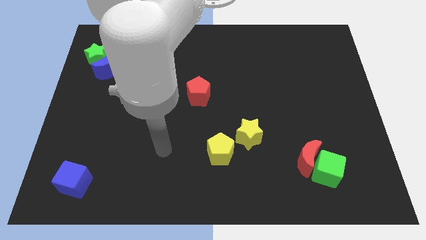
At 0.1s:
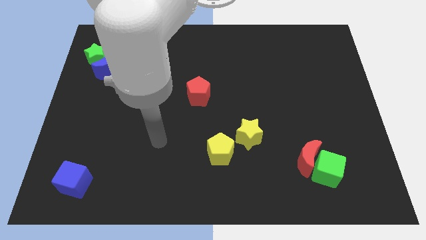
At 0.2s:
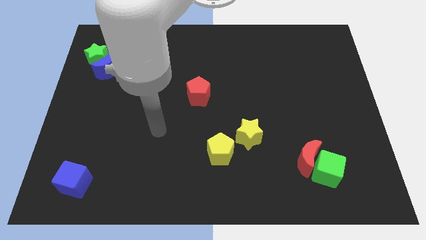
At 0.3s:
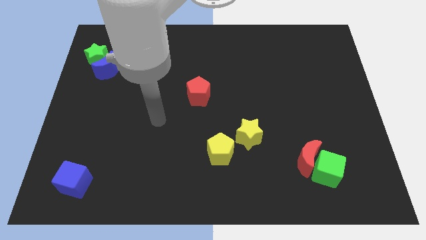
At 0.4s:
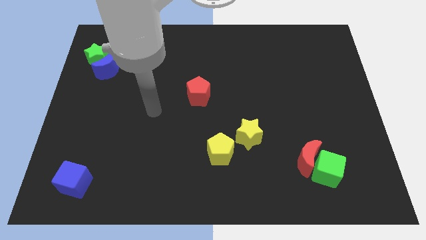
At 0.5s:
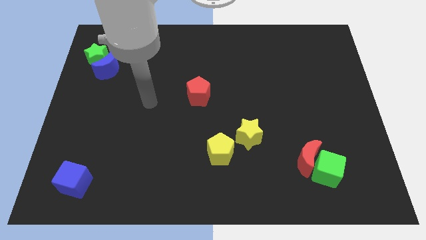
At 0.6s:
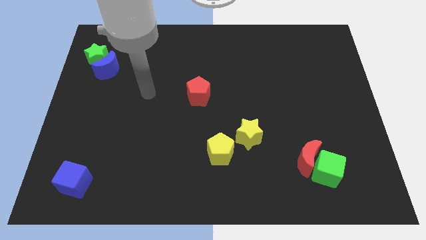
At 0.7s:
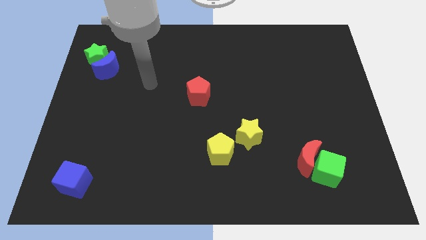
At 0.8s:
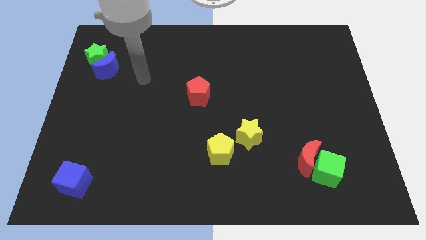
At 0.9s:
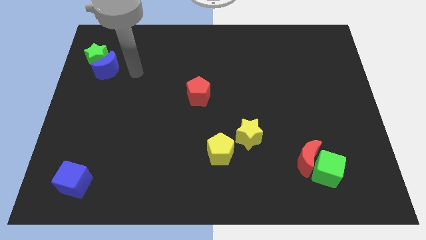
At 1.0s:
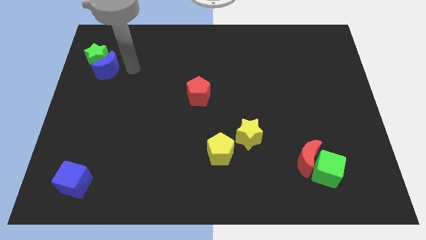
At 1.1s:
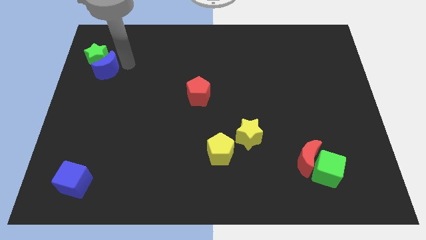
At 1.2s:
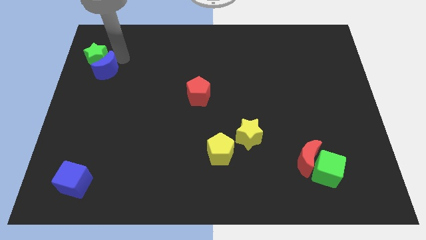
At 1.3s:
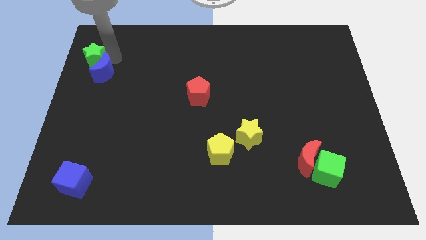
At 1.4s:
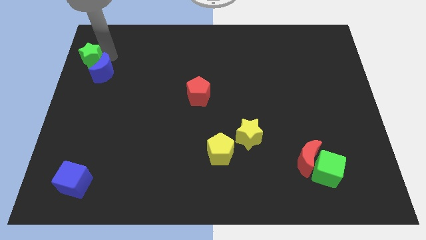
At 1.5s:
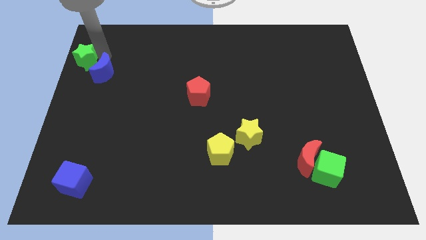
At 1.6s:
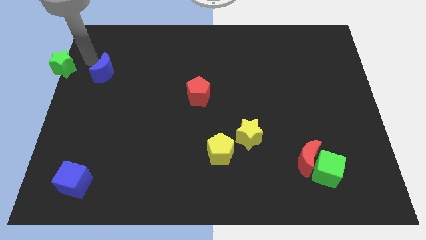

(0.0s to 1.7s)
separate the blue moon from the green star

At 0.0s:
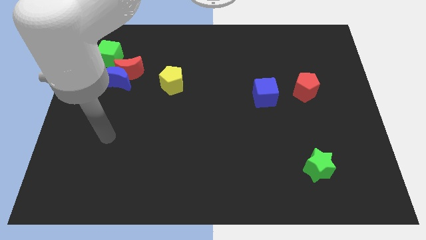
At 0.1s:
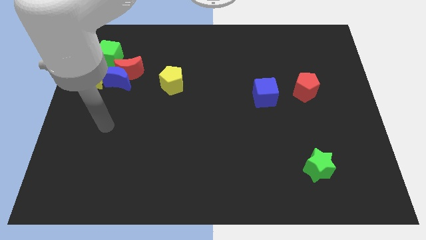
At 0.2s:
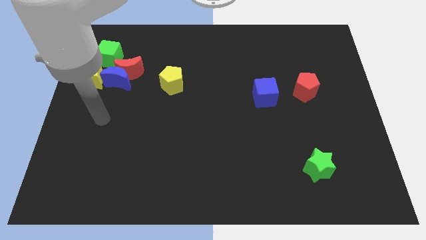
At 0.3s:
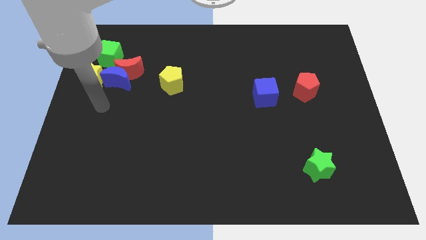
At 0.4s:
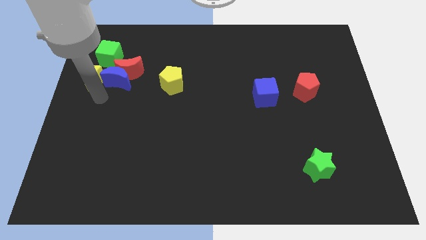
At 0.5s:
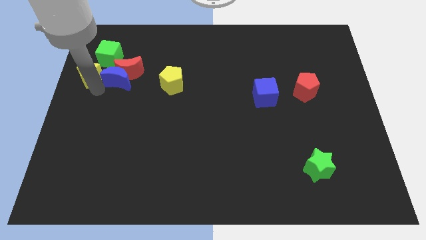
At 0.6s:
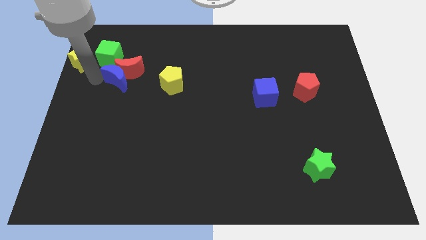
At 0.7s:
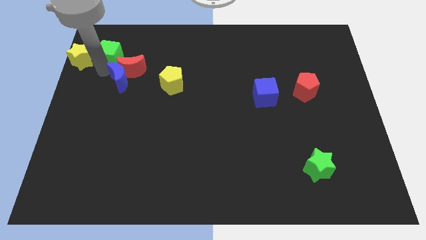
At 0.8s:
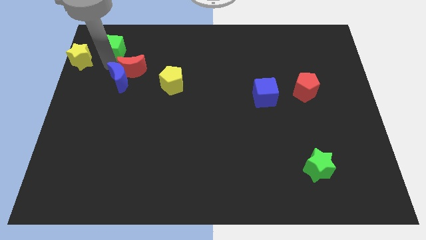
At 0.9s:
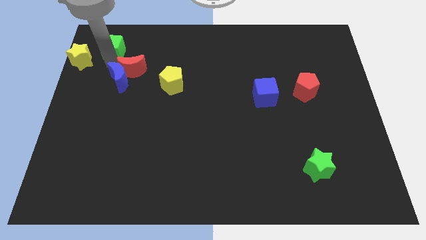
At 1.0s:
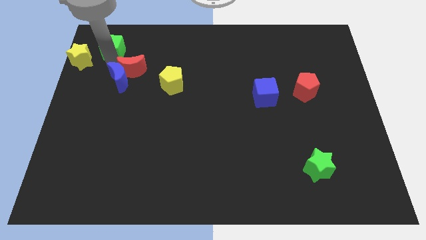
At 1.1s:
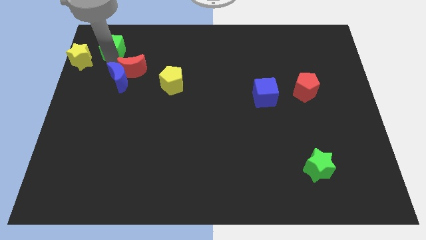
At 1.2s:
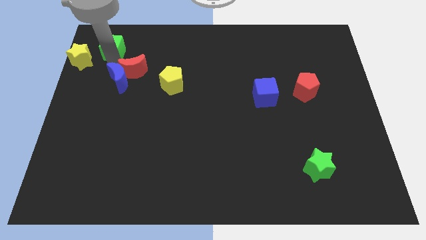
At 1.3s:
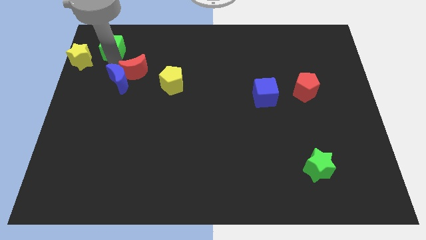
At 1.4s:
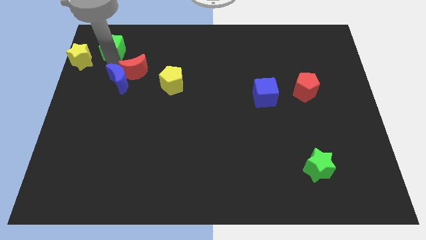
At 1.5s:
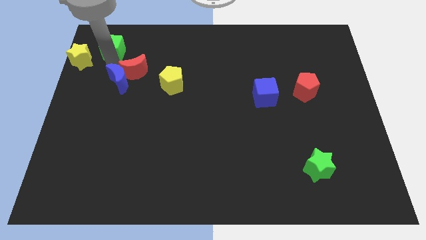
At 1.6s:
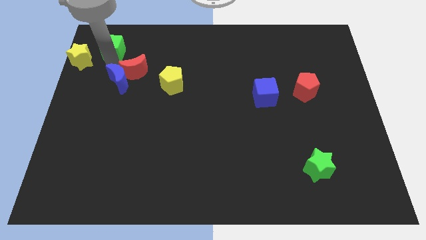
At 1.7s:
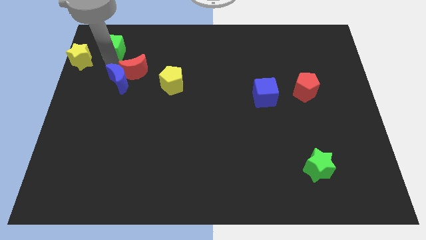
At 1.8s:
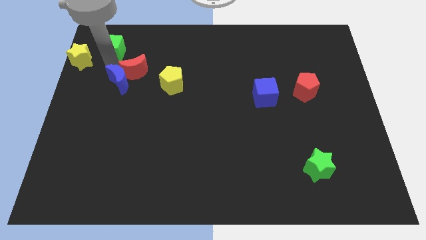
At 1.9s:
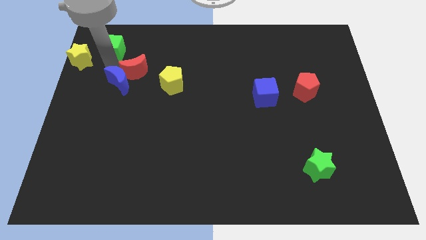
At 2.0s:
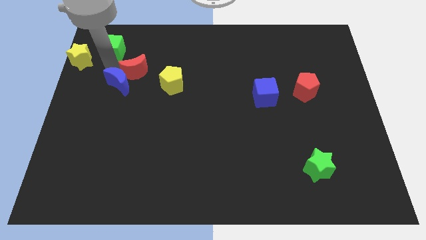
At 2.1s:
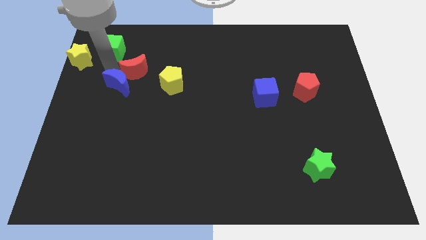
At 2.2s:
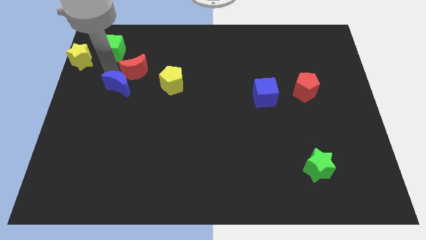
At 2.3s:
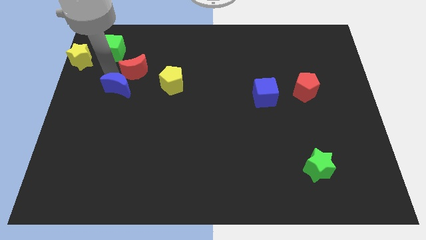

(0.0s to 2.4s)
pull the blue moon apart from the clump

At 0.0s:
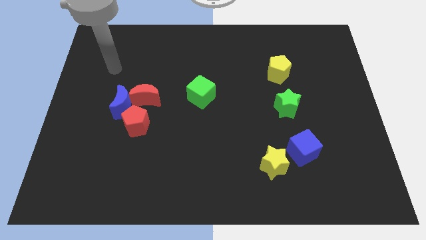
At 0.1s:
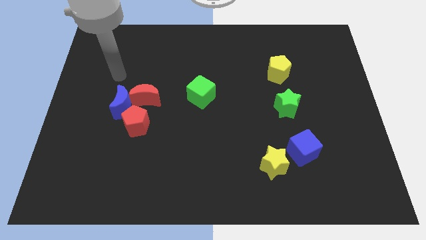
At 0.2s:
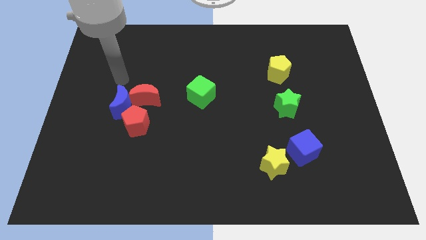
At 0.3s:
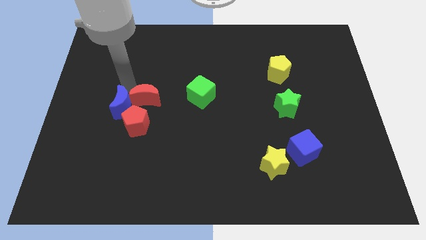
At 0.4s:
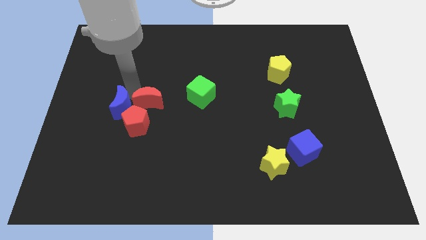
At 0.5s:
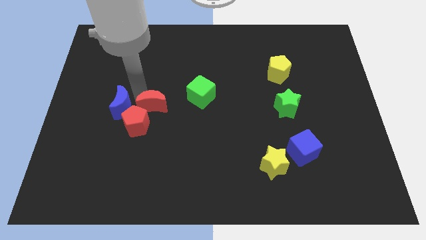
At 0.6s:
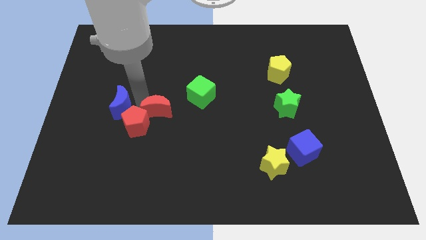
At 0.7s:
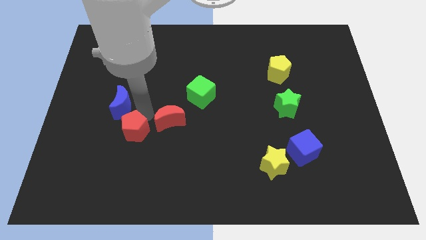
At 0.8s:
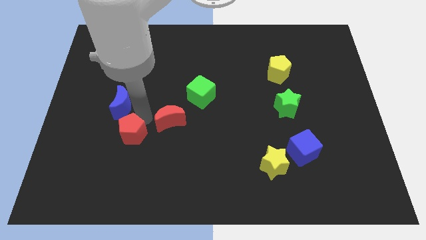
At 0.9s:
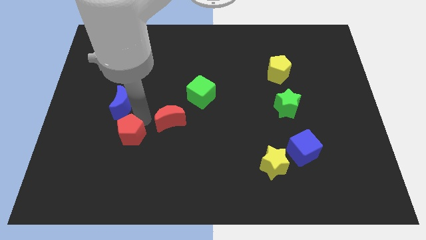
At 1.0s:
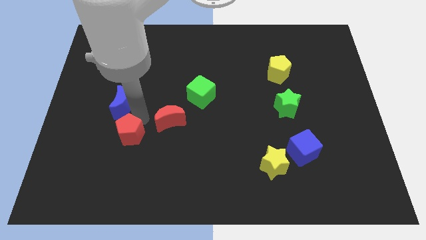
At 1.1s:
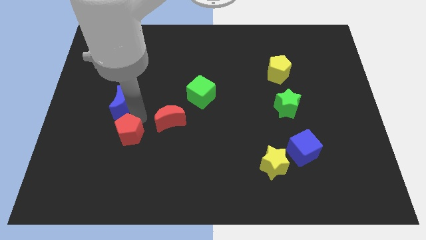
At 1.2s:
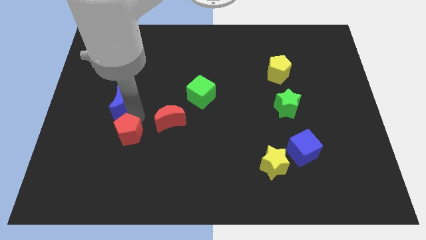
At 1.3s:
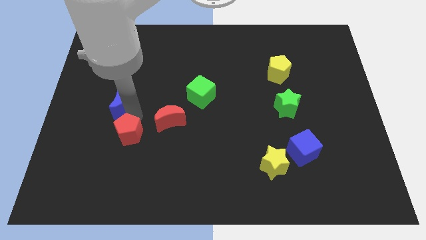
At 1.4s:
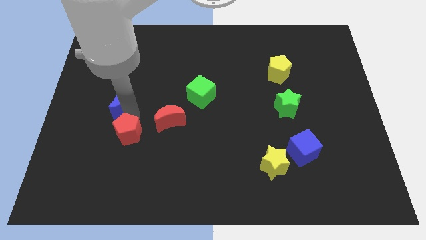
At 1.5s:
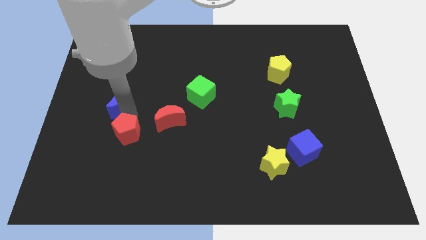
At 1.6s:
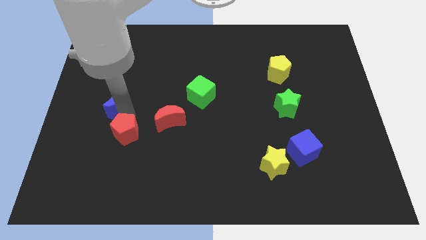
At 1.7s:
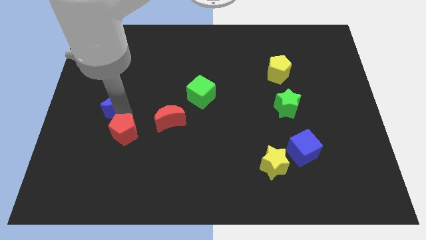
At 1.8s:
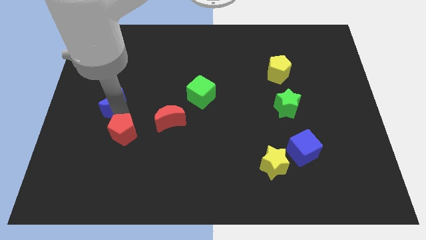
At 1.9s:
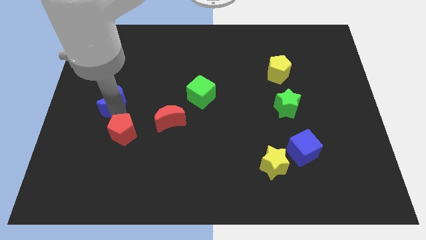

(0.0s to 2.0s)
move the blue moon away from the red moon and red pentagon

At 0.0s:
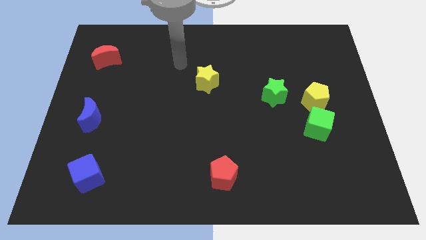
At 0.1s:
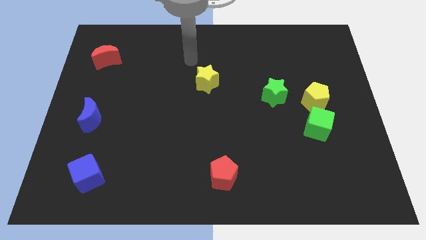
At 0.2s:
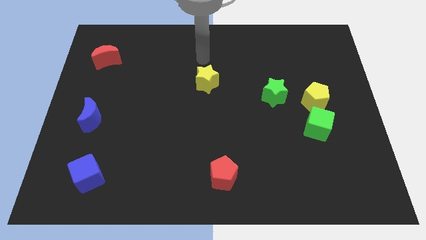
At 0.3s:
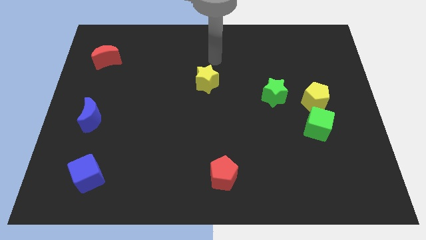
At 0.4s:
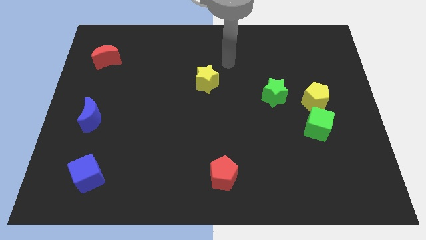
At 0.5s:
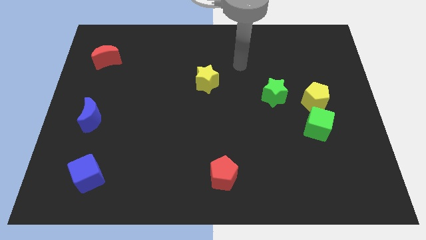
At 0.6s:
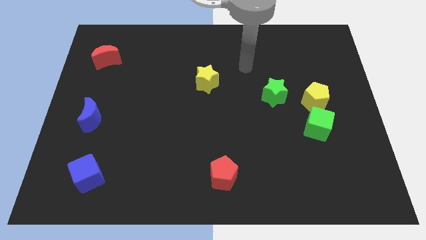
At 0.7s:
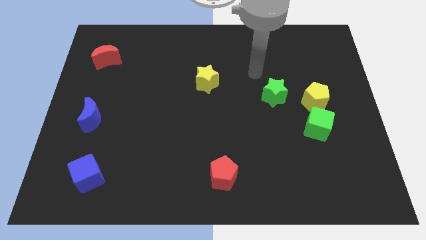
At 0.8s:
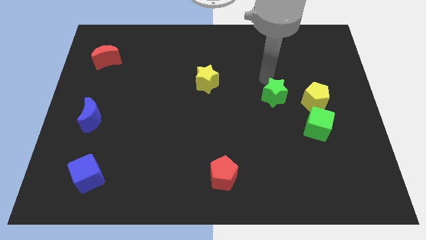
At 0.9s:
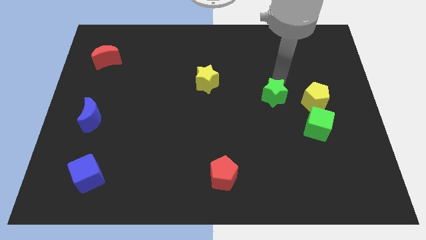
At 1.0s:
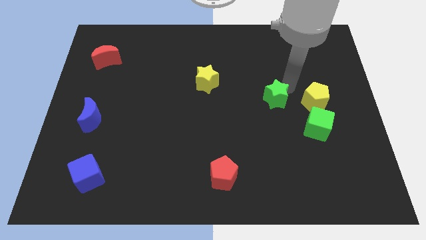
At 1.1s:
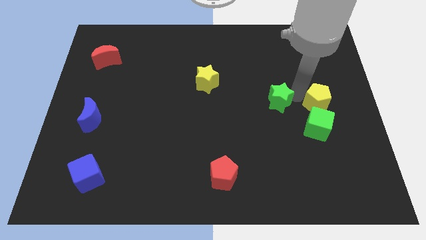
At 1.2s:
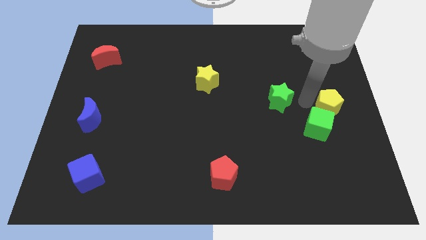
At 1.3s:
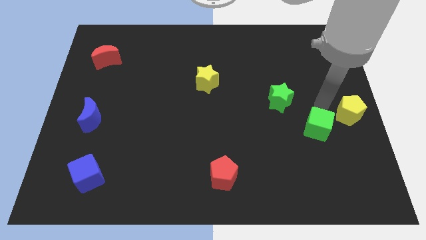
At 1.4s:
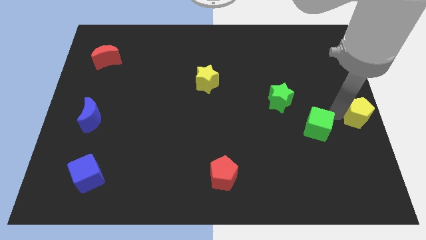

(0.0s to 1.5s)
move the green cube away from the yellow pentagon

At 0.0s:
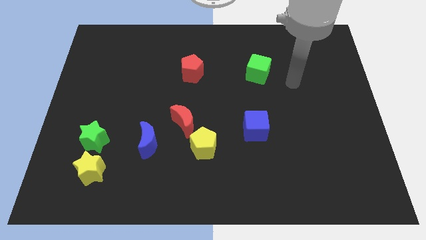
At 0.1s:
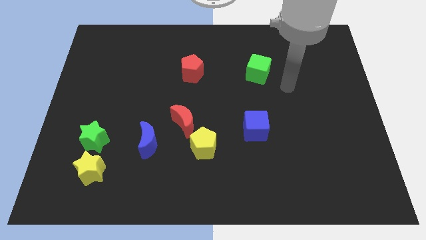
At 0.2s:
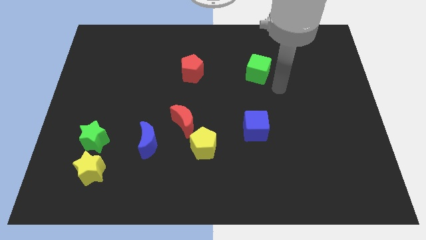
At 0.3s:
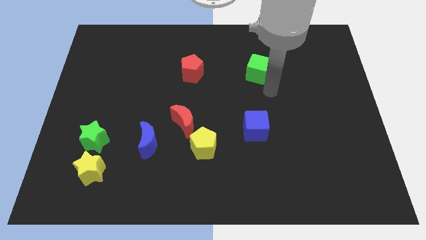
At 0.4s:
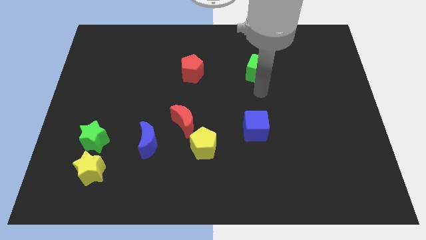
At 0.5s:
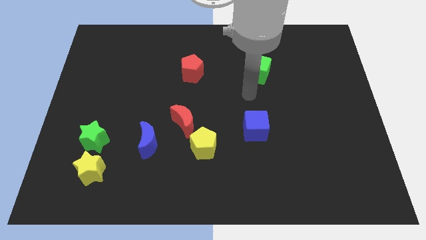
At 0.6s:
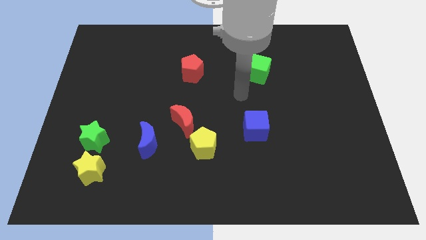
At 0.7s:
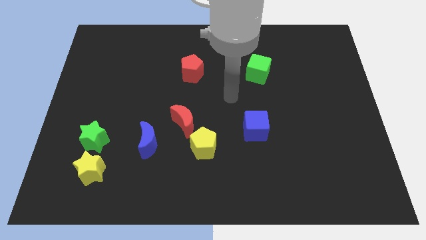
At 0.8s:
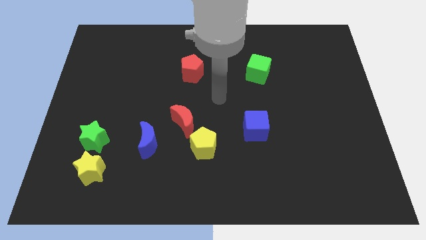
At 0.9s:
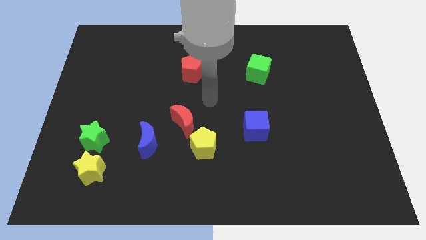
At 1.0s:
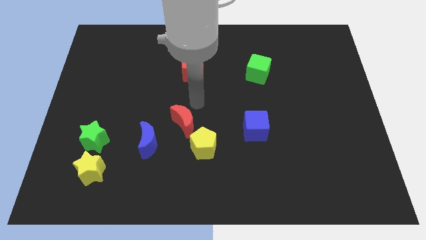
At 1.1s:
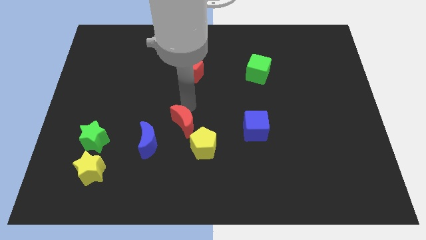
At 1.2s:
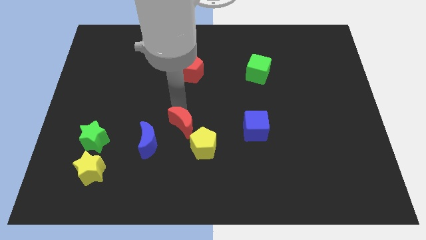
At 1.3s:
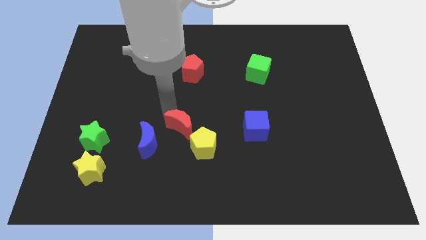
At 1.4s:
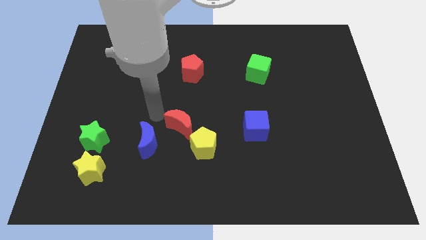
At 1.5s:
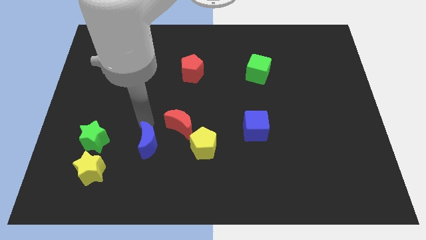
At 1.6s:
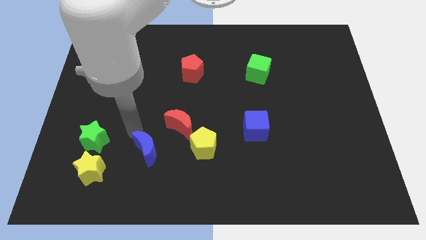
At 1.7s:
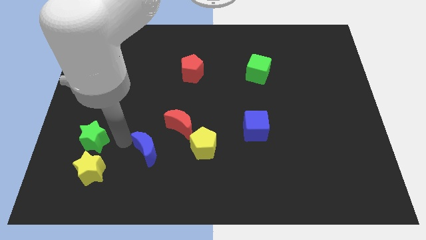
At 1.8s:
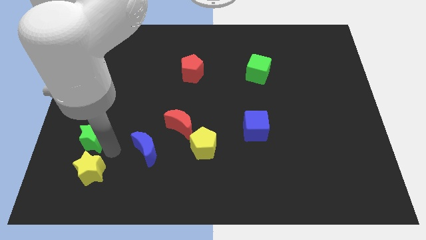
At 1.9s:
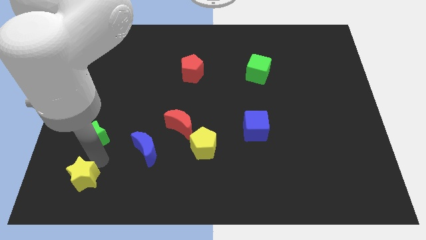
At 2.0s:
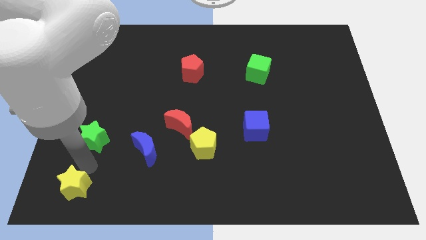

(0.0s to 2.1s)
separate the green star from the yellow star
